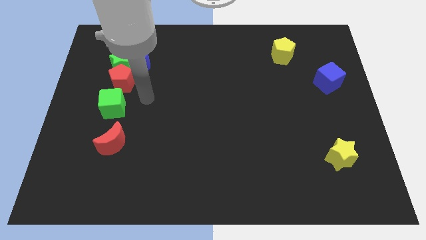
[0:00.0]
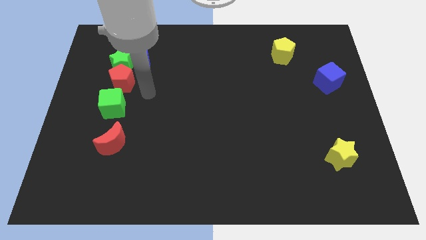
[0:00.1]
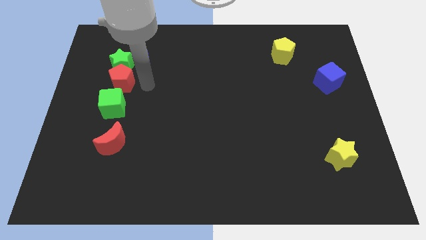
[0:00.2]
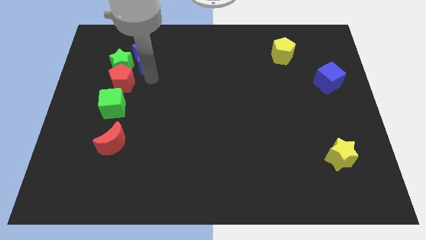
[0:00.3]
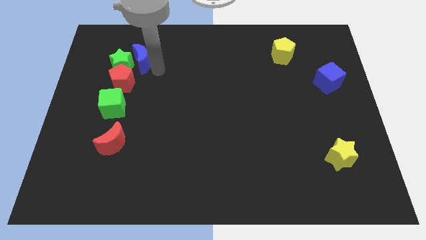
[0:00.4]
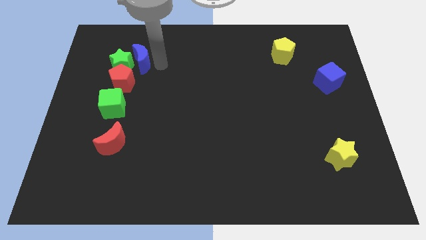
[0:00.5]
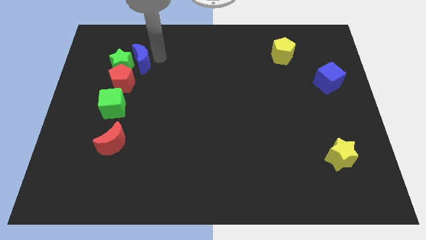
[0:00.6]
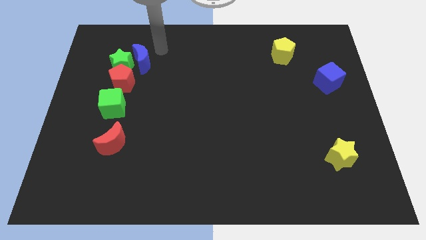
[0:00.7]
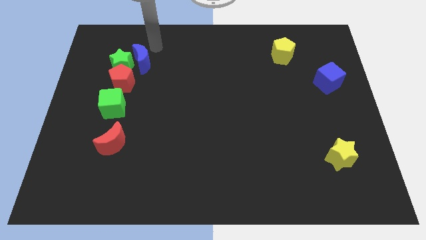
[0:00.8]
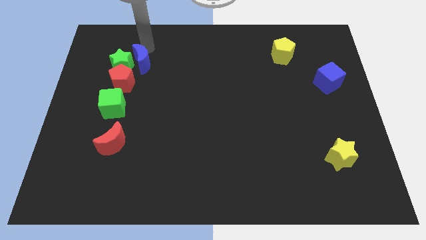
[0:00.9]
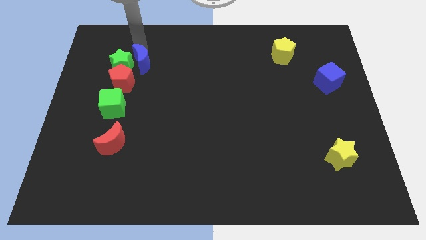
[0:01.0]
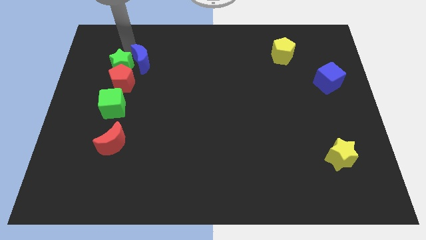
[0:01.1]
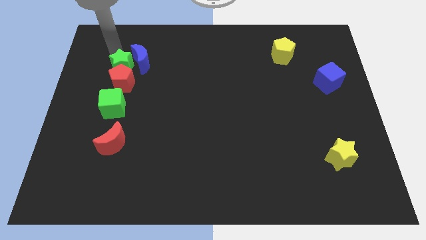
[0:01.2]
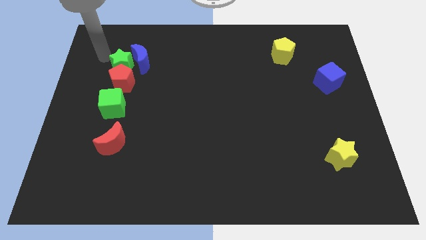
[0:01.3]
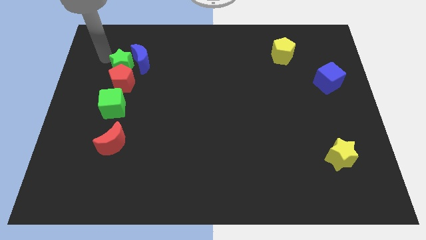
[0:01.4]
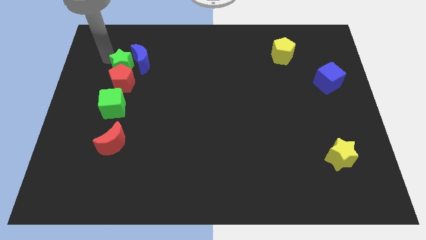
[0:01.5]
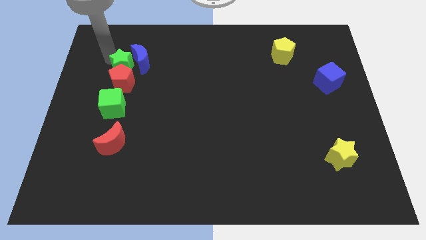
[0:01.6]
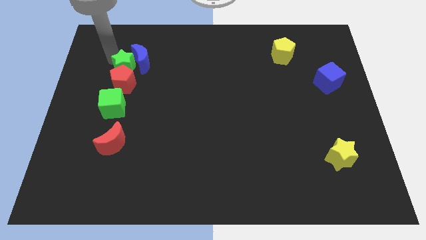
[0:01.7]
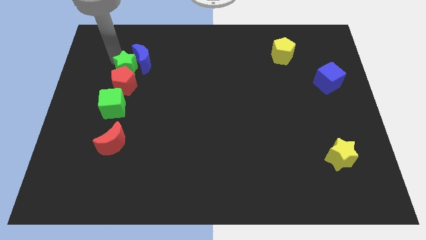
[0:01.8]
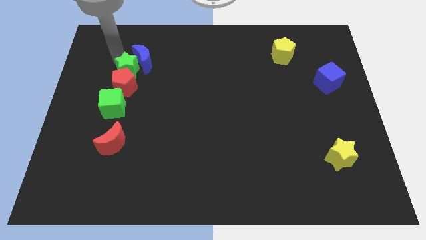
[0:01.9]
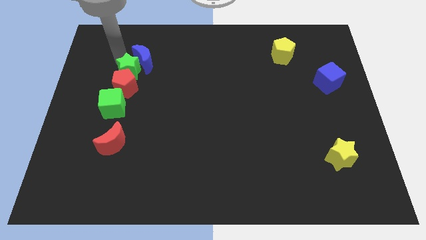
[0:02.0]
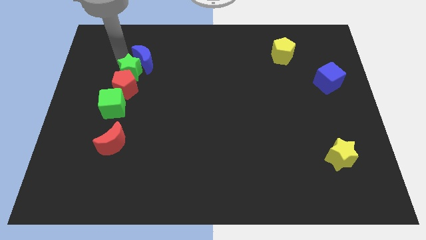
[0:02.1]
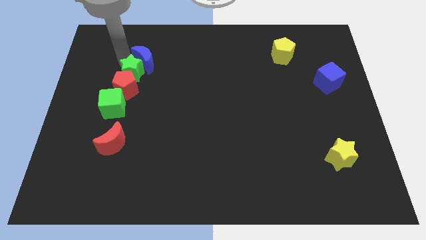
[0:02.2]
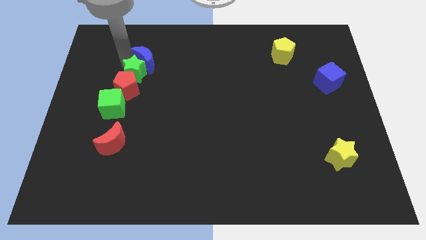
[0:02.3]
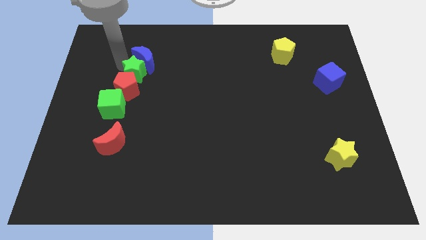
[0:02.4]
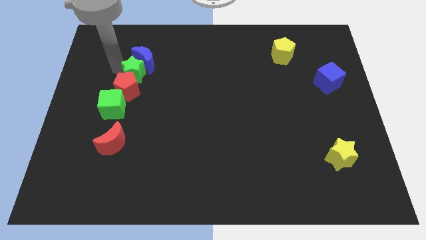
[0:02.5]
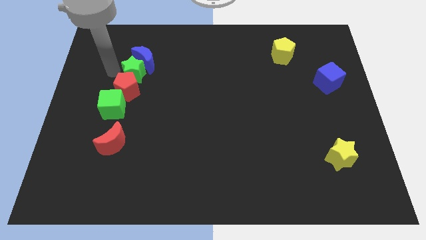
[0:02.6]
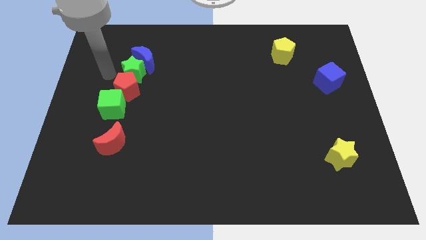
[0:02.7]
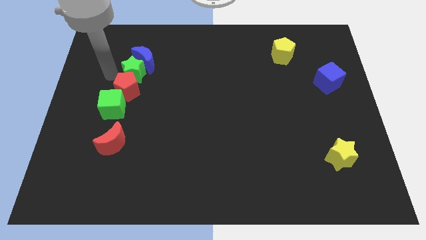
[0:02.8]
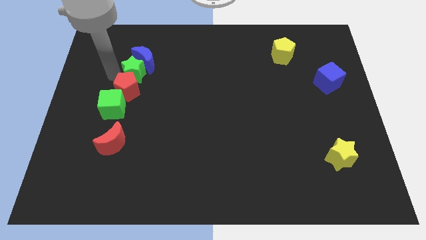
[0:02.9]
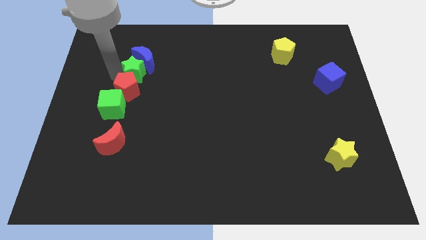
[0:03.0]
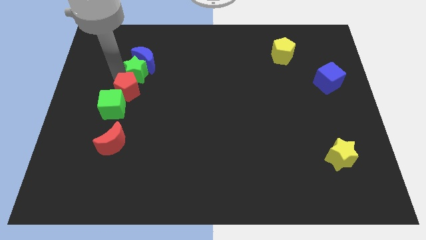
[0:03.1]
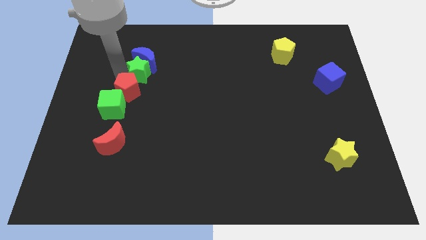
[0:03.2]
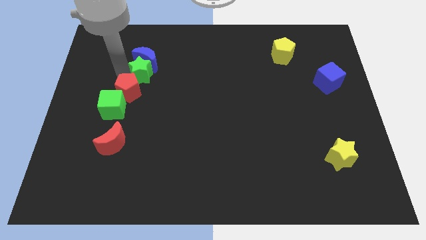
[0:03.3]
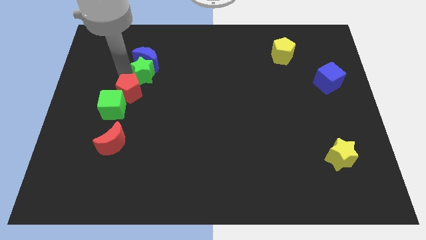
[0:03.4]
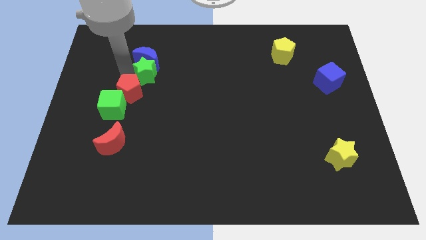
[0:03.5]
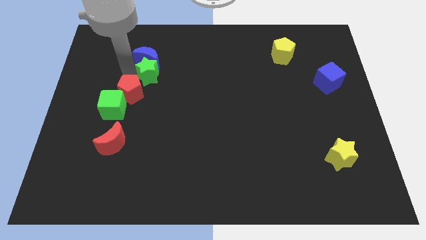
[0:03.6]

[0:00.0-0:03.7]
push the green star a little bit to the right

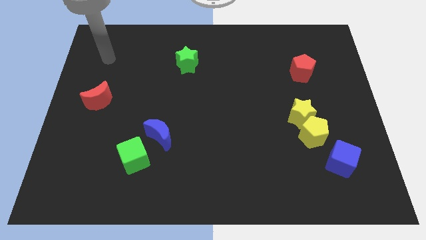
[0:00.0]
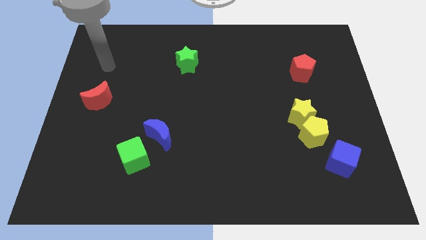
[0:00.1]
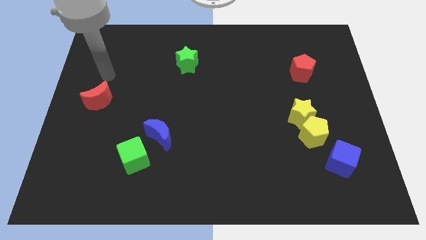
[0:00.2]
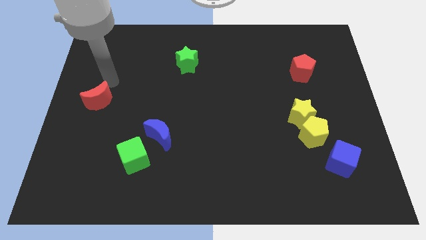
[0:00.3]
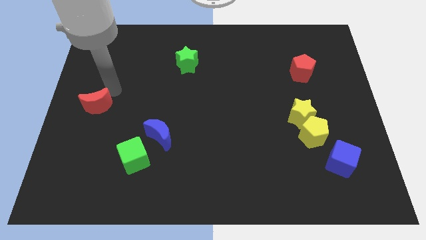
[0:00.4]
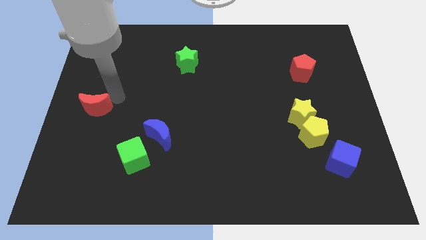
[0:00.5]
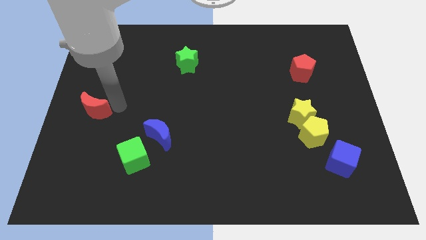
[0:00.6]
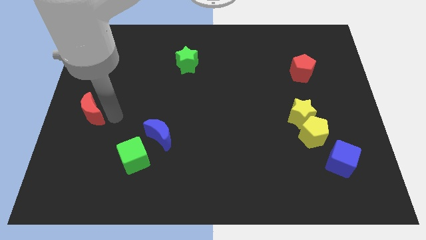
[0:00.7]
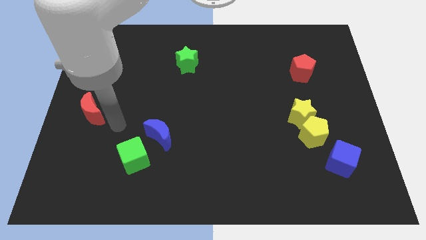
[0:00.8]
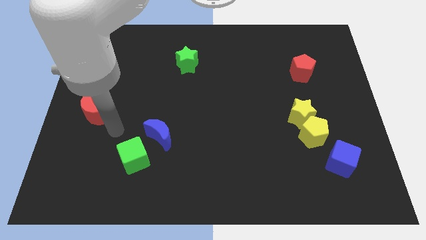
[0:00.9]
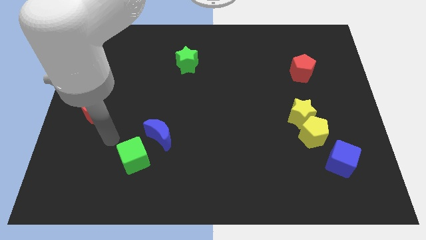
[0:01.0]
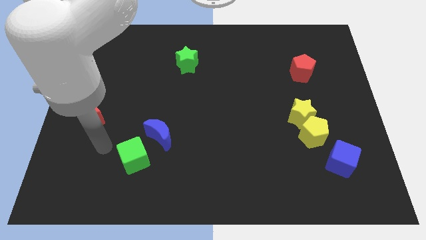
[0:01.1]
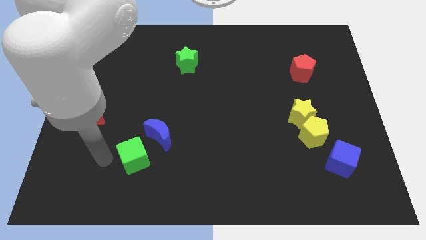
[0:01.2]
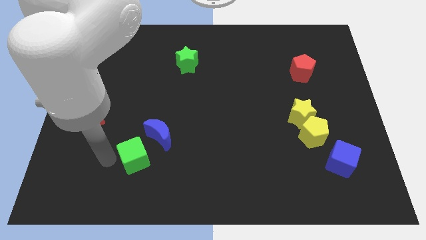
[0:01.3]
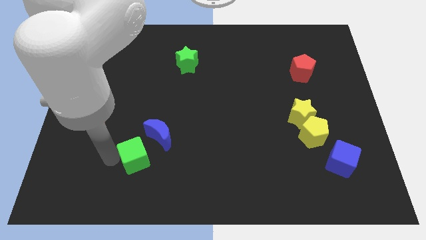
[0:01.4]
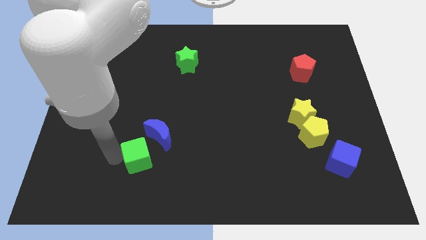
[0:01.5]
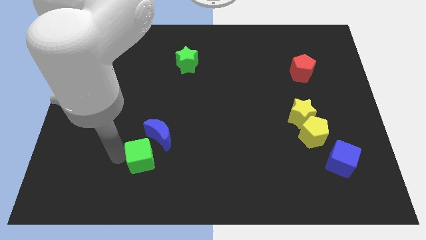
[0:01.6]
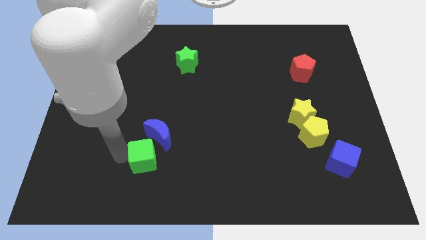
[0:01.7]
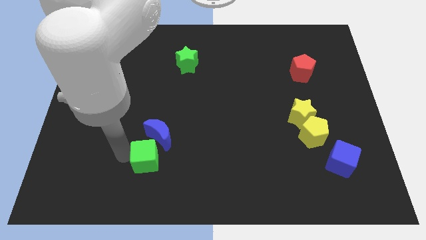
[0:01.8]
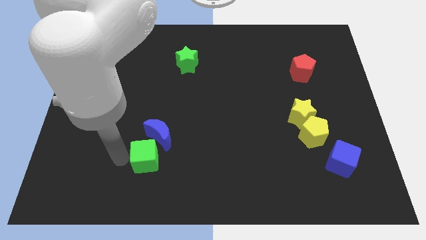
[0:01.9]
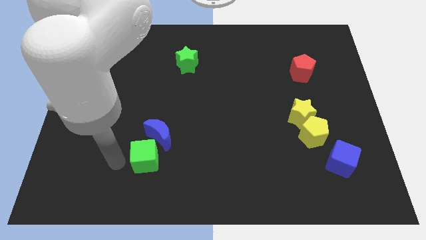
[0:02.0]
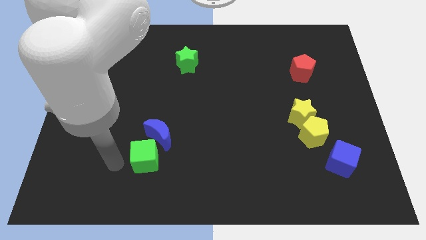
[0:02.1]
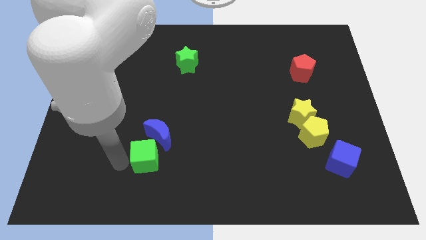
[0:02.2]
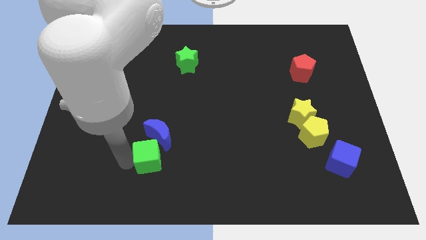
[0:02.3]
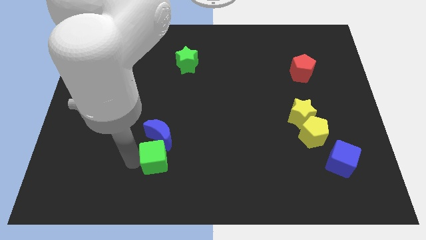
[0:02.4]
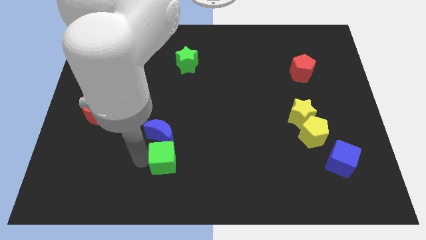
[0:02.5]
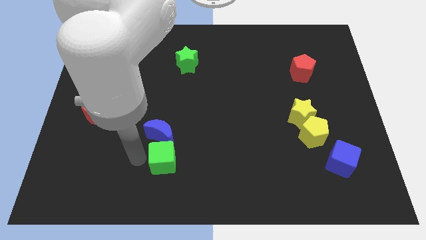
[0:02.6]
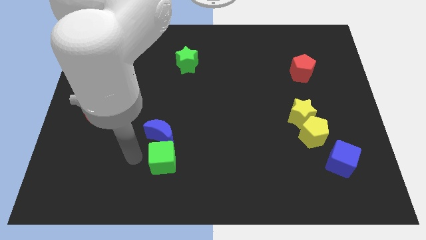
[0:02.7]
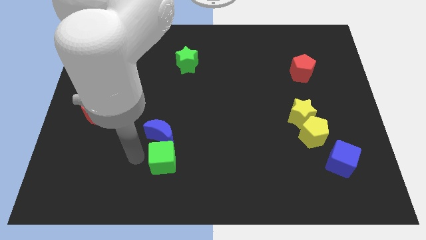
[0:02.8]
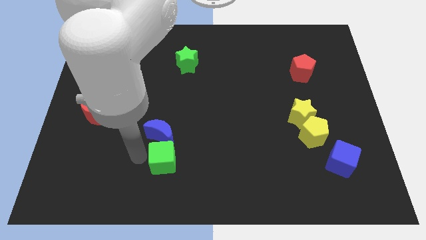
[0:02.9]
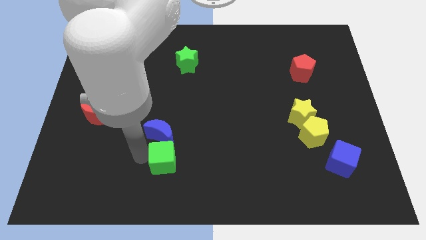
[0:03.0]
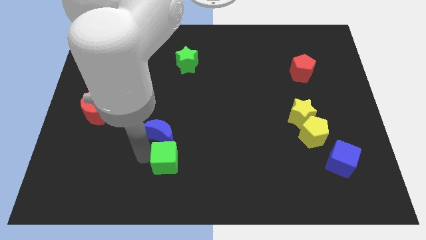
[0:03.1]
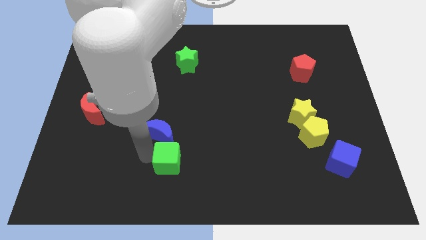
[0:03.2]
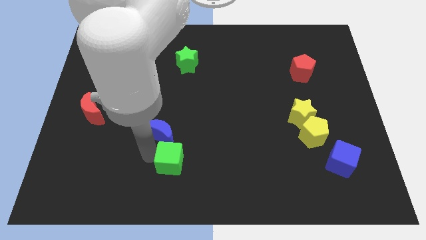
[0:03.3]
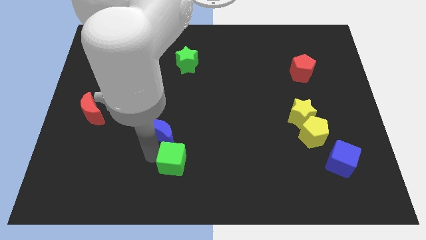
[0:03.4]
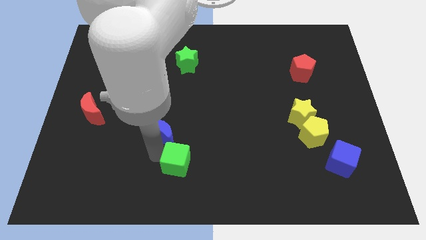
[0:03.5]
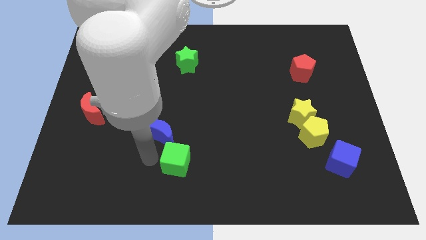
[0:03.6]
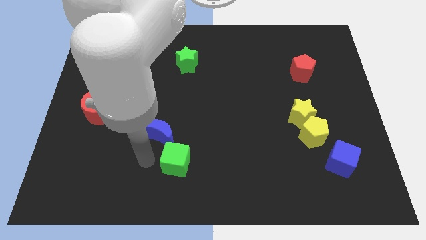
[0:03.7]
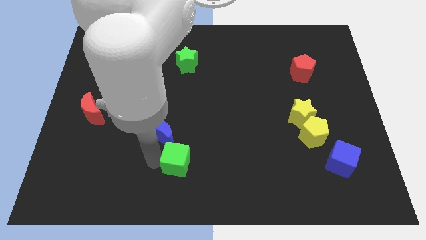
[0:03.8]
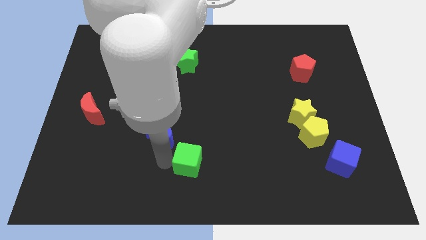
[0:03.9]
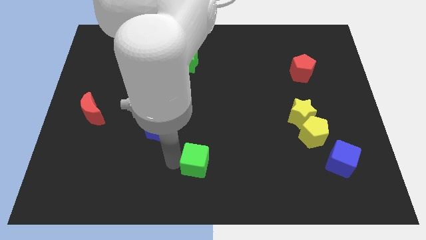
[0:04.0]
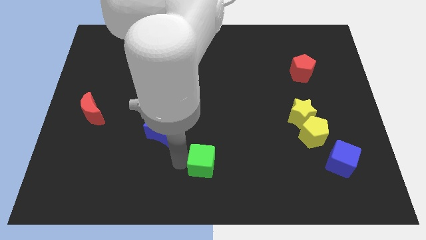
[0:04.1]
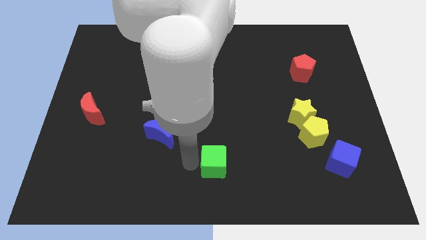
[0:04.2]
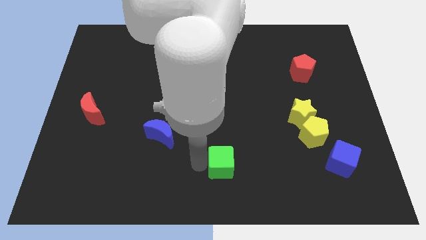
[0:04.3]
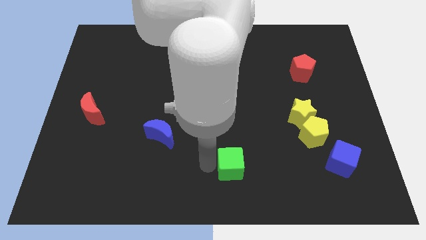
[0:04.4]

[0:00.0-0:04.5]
push the green cube to the right
